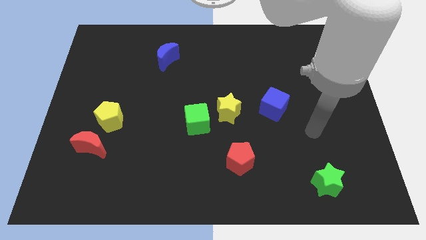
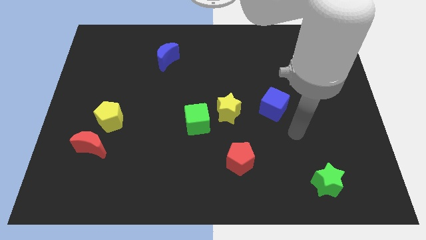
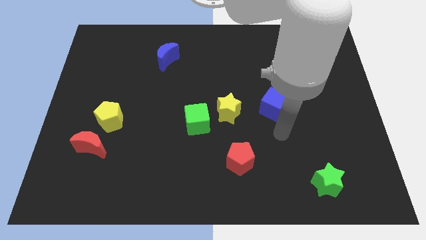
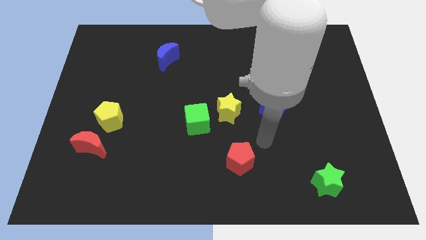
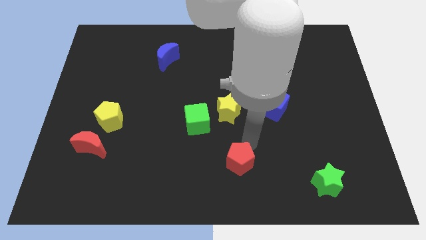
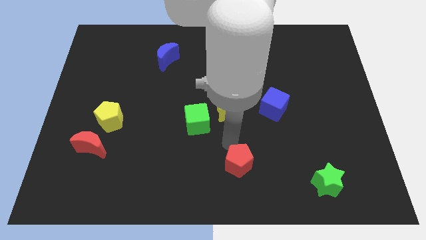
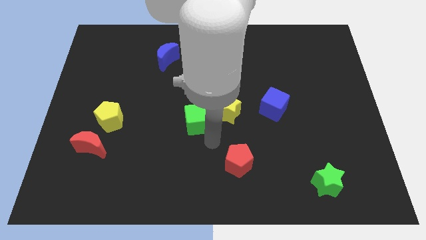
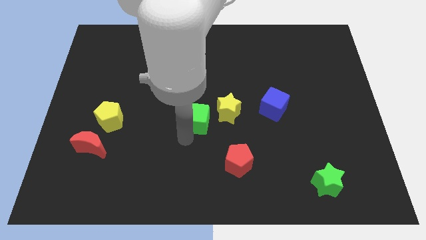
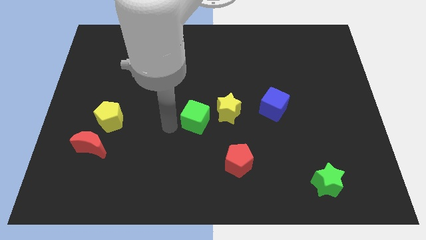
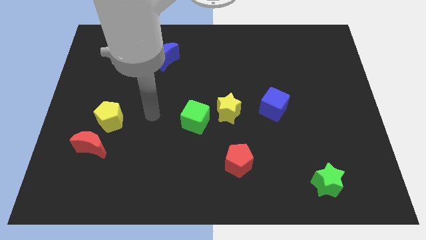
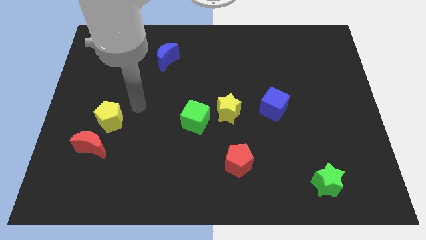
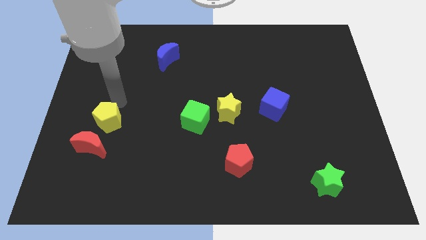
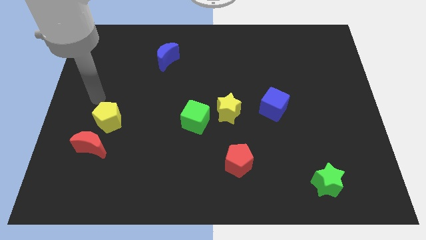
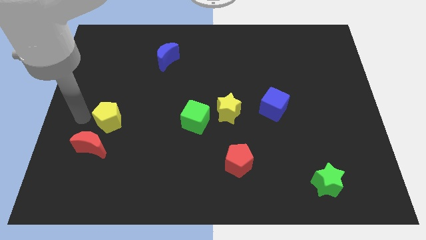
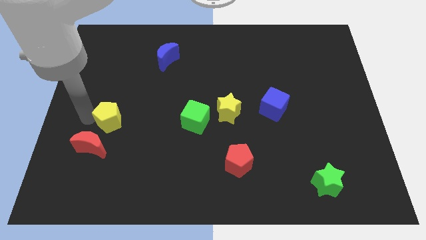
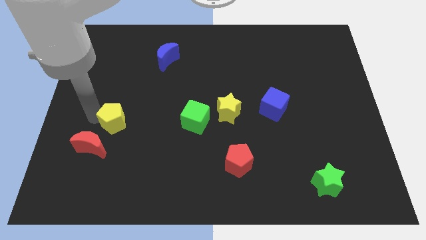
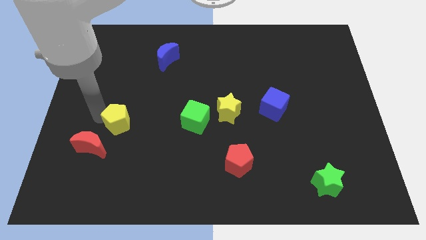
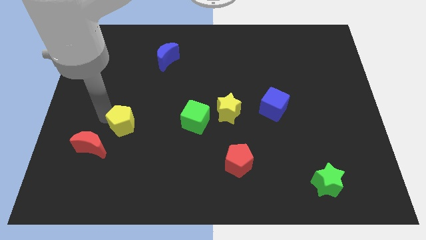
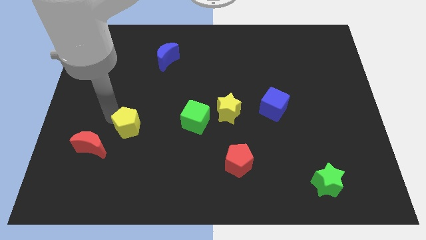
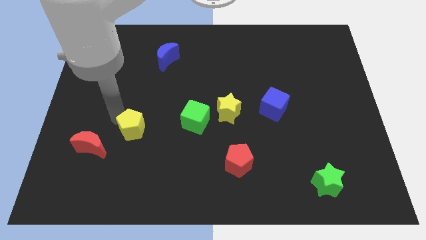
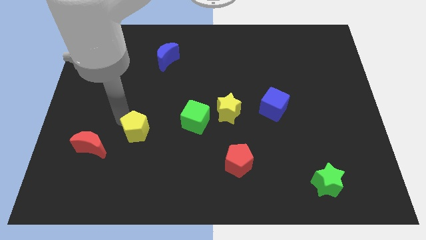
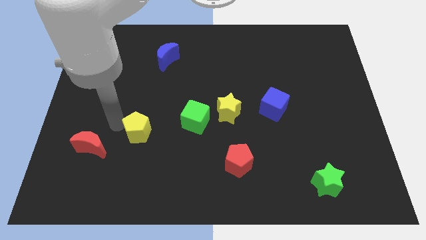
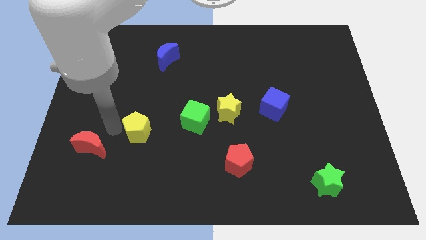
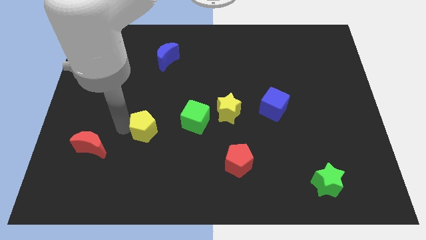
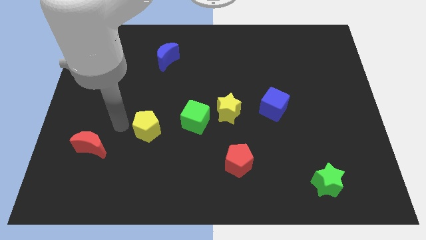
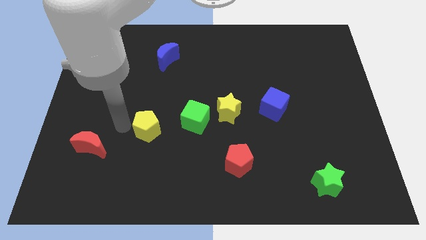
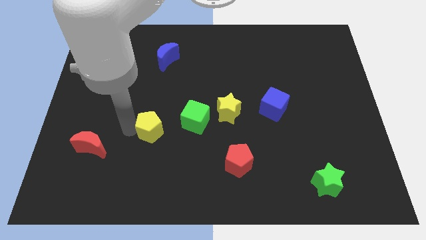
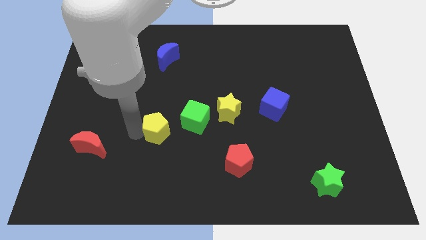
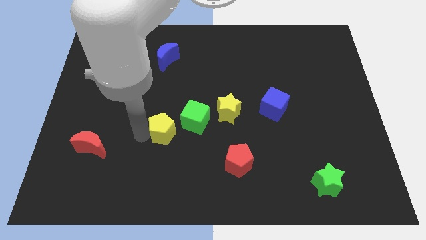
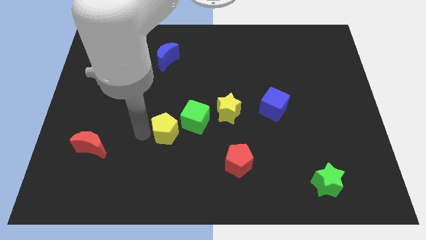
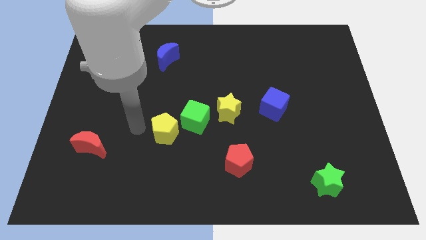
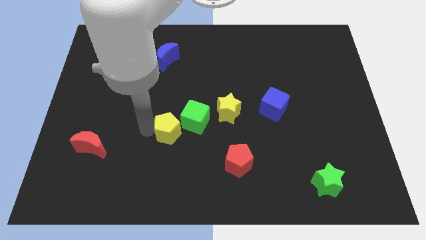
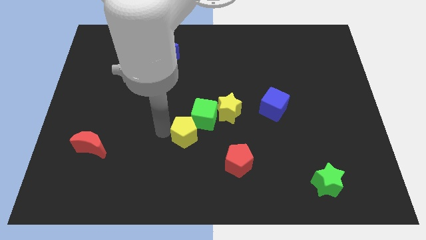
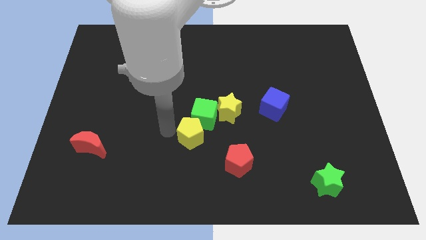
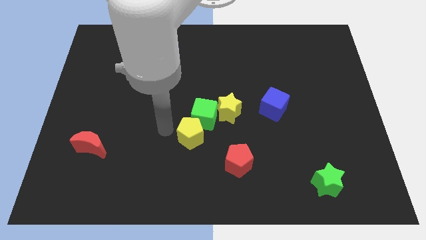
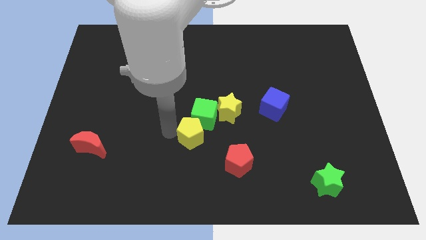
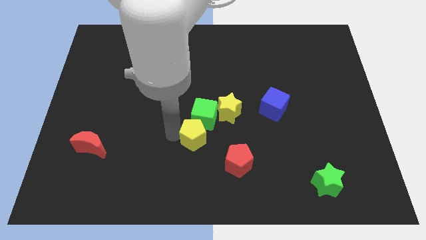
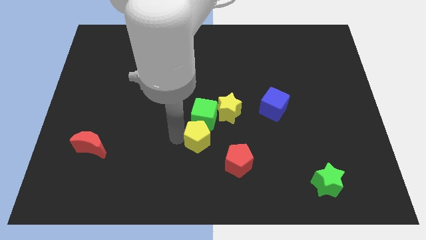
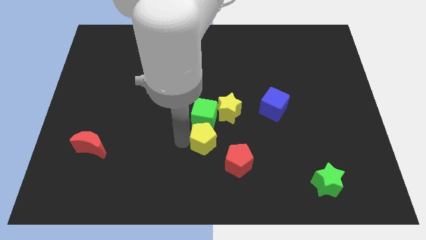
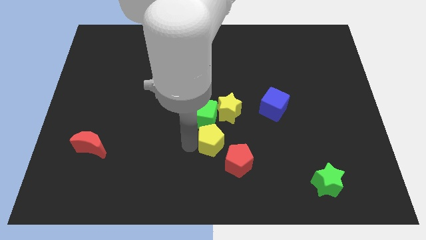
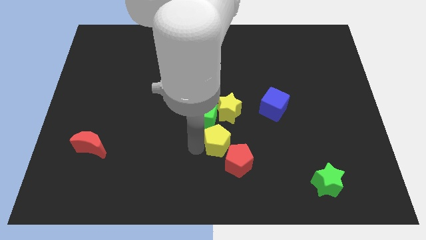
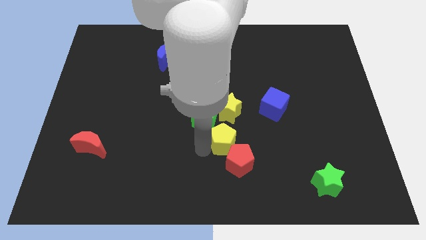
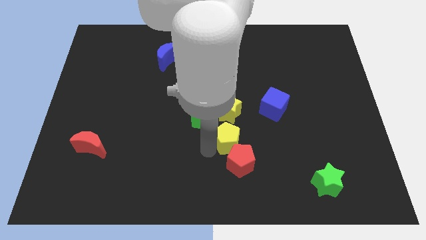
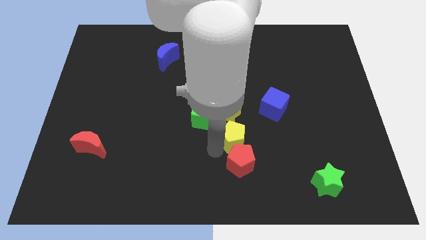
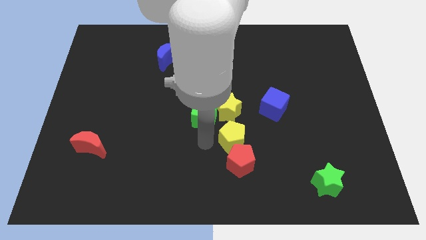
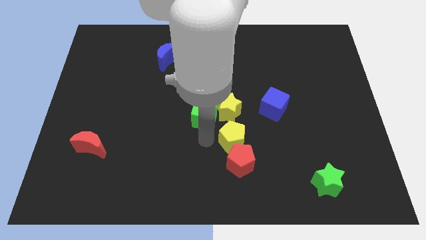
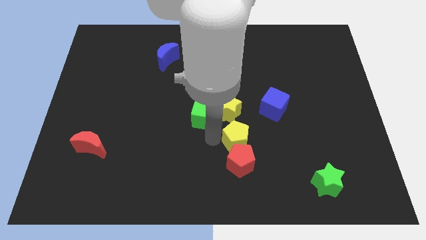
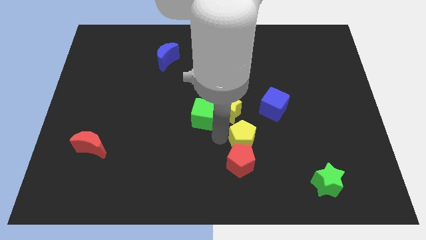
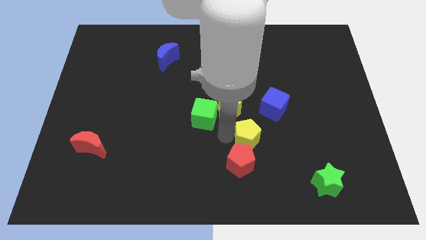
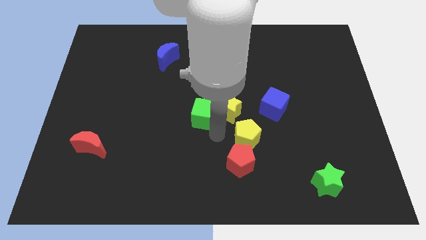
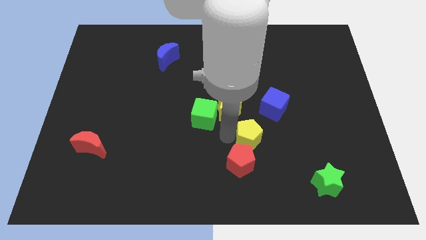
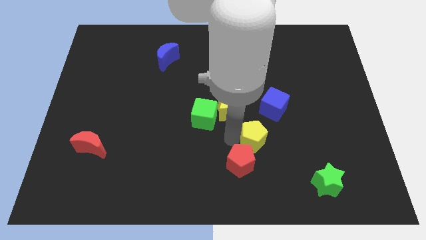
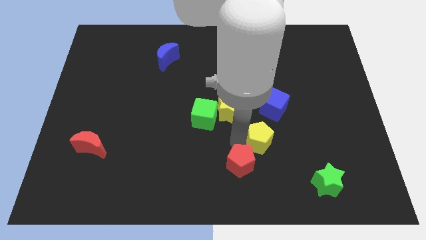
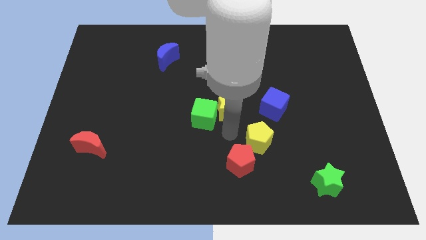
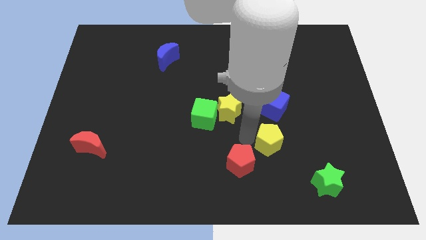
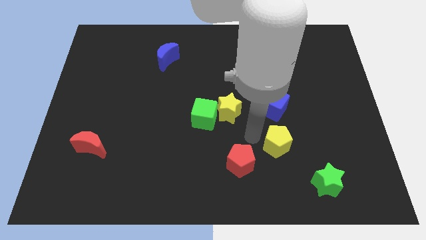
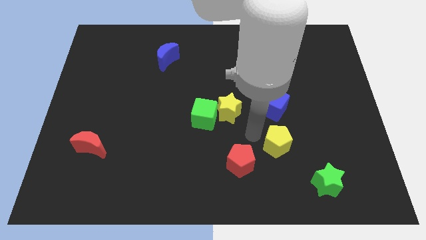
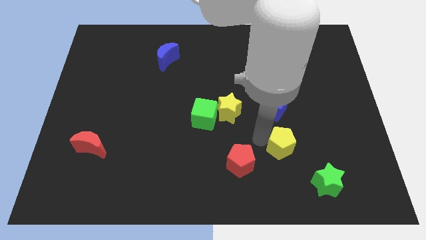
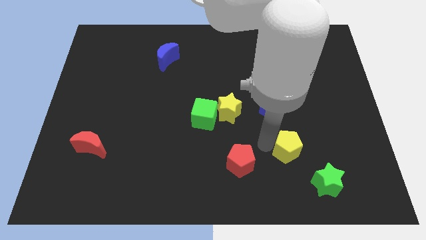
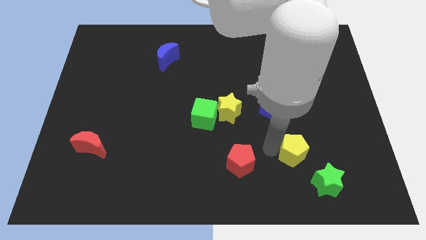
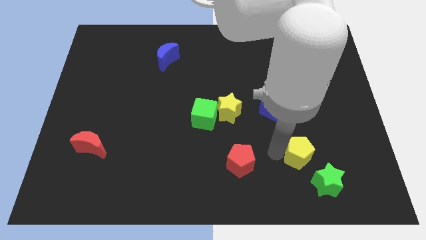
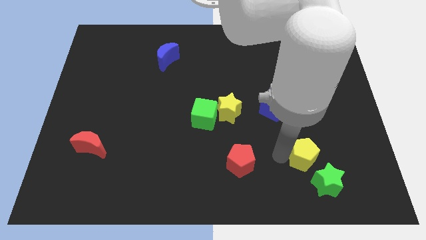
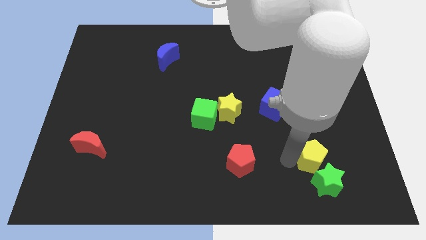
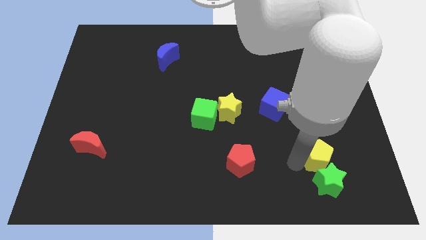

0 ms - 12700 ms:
move the yellow pentagon diagonally up and to the right of the green star
